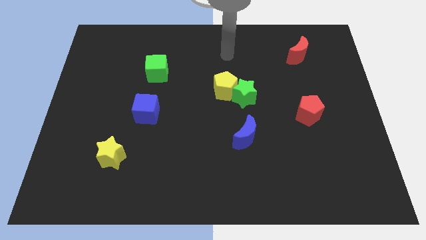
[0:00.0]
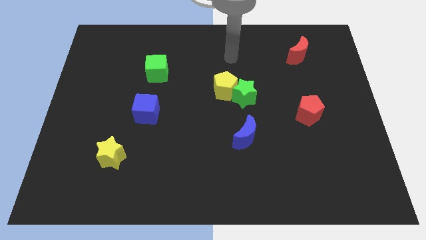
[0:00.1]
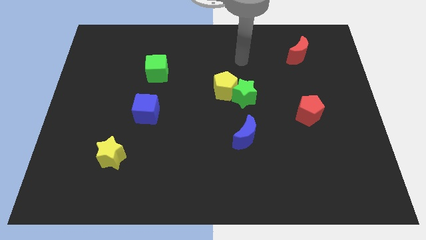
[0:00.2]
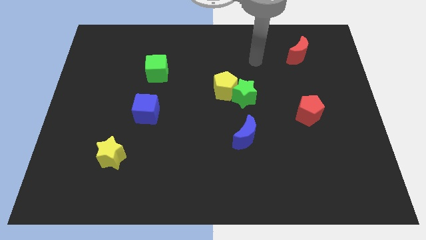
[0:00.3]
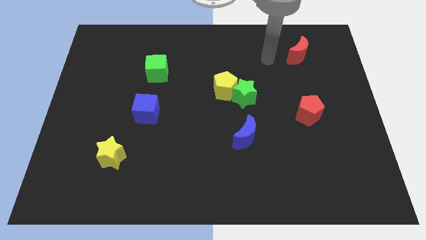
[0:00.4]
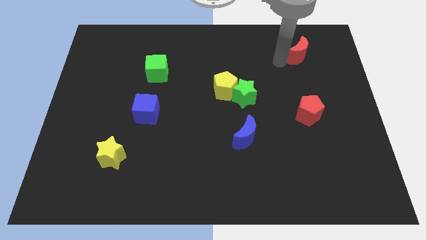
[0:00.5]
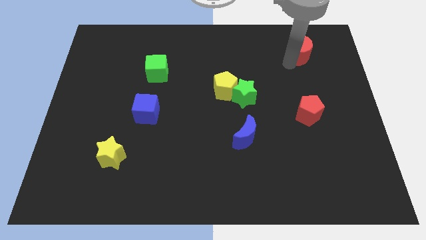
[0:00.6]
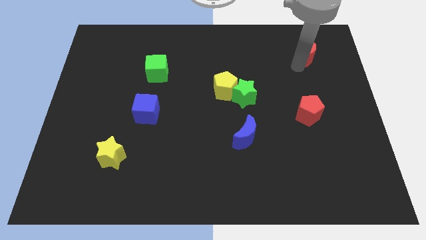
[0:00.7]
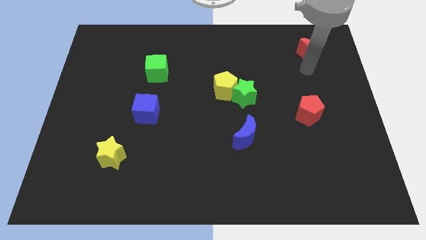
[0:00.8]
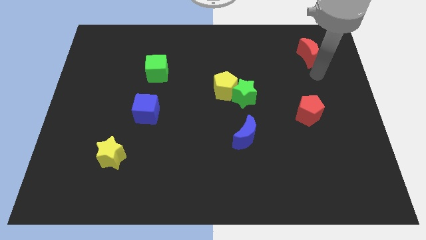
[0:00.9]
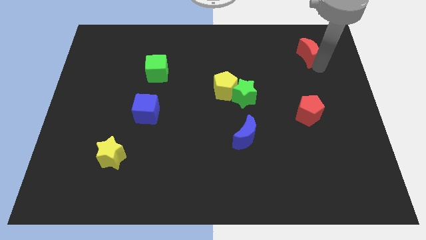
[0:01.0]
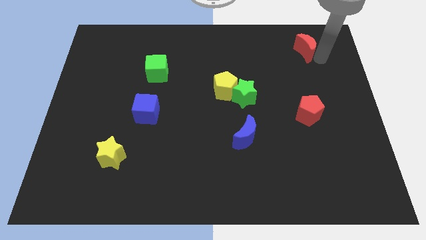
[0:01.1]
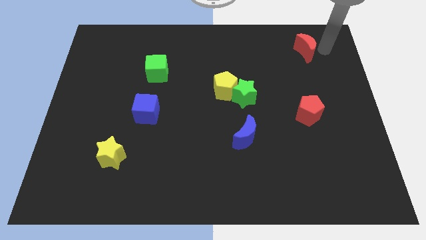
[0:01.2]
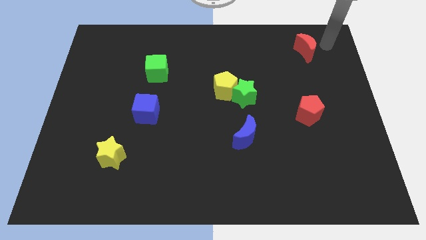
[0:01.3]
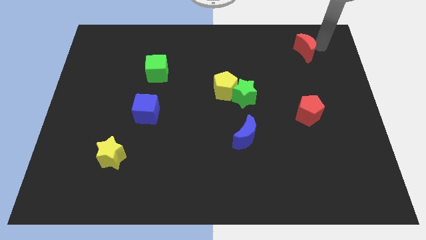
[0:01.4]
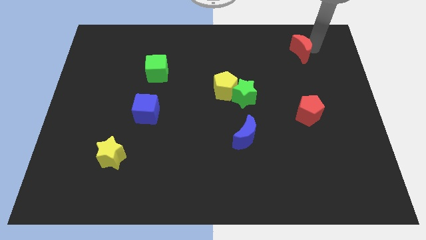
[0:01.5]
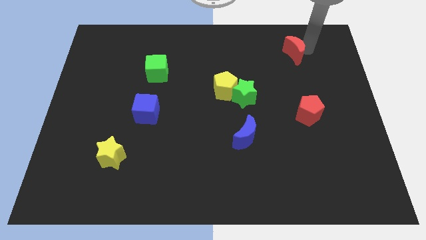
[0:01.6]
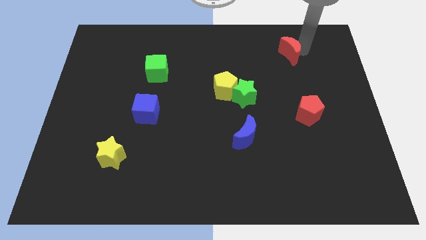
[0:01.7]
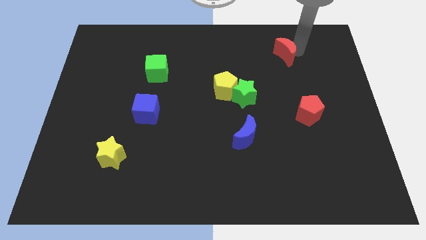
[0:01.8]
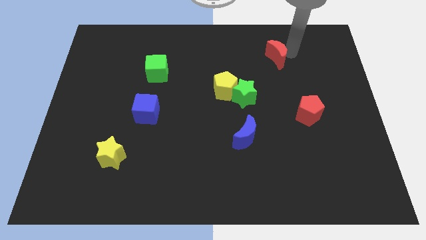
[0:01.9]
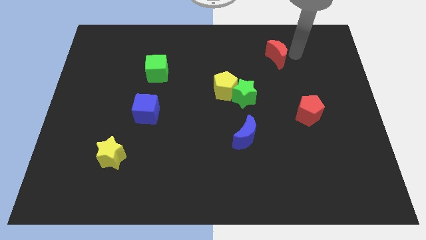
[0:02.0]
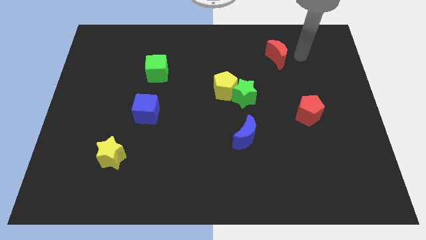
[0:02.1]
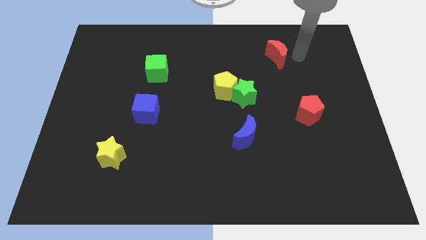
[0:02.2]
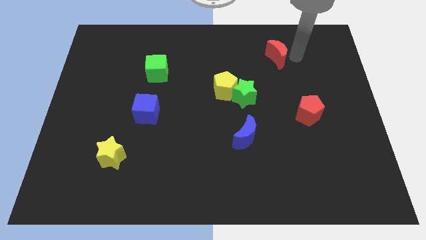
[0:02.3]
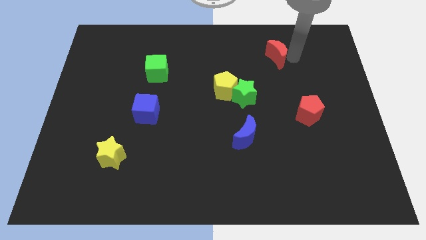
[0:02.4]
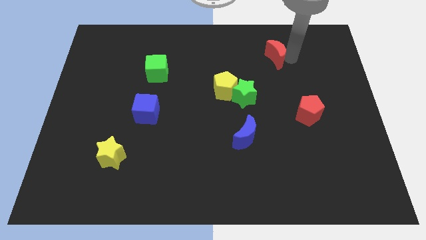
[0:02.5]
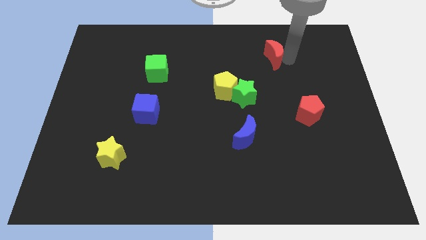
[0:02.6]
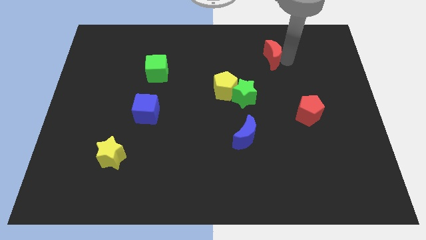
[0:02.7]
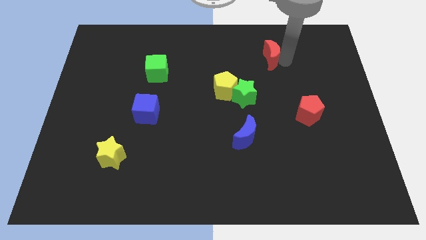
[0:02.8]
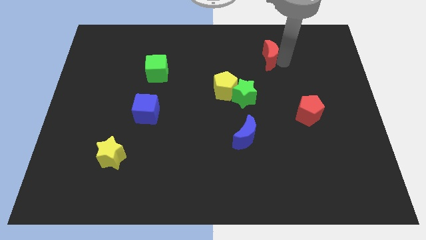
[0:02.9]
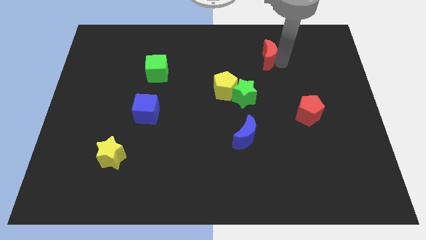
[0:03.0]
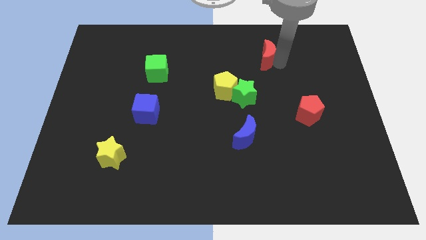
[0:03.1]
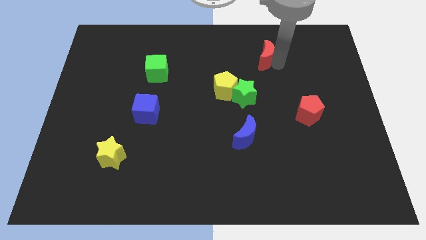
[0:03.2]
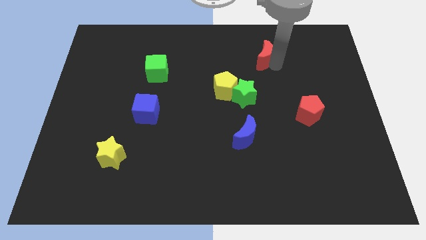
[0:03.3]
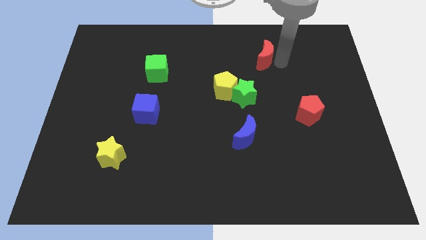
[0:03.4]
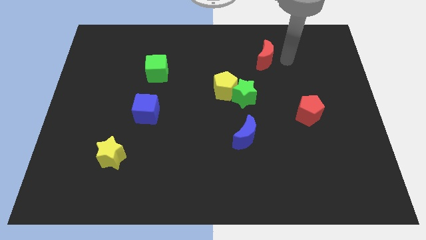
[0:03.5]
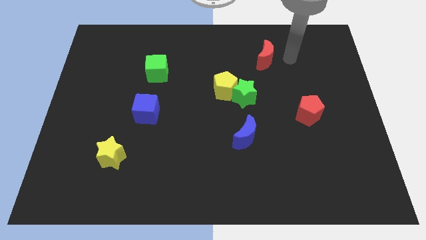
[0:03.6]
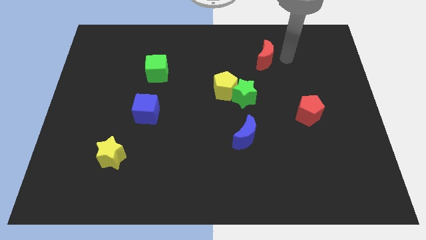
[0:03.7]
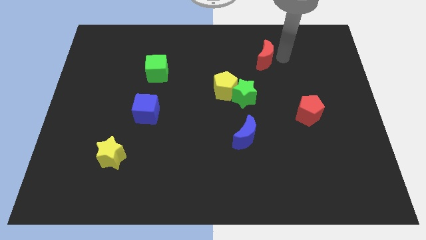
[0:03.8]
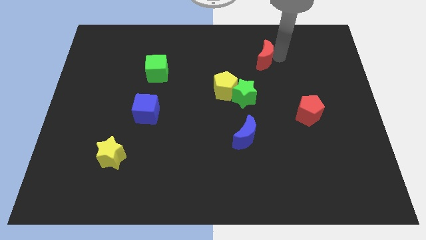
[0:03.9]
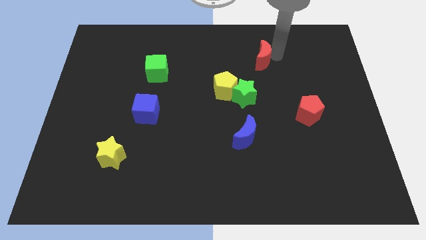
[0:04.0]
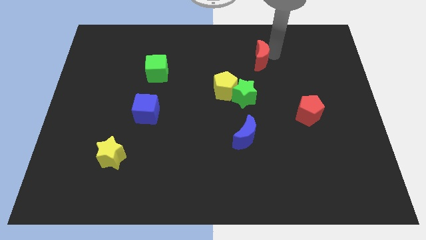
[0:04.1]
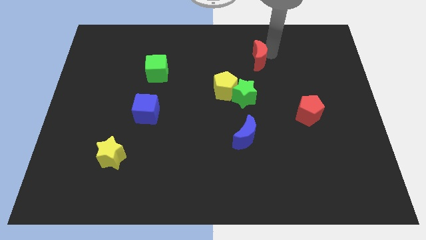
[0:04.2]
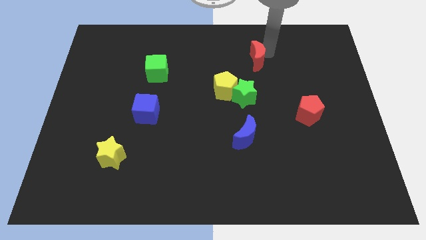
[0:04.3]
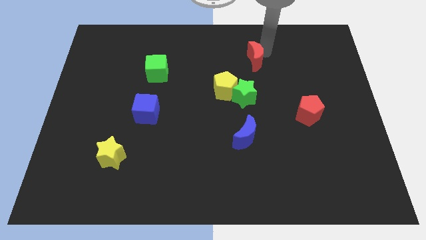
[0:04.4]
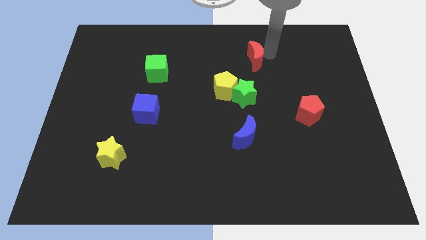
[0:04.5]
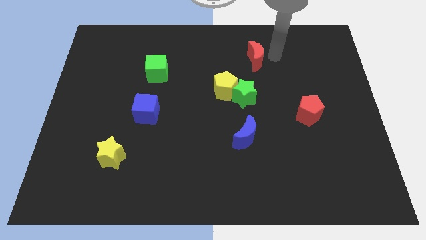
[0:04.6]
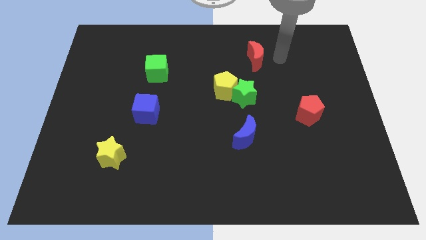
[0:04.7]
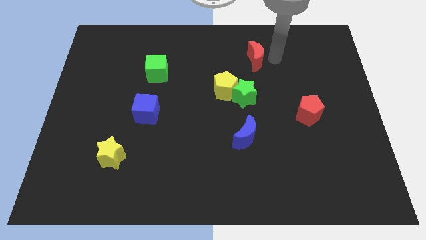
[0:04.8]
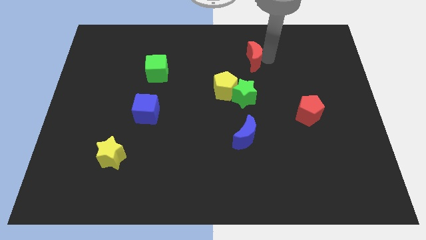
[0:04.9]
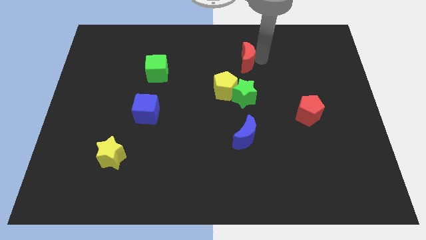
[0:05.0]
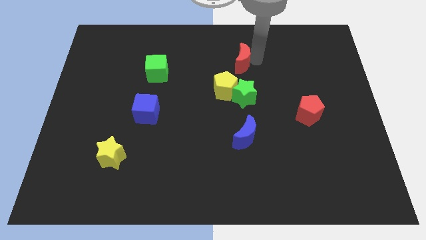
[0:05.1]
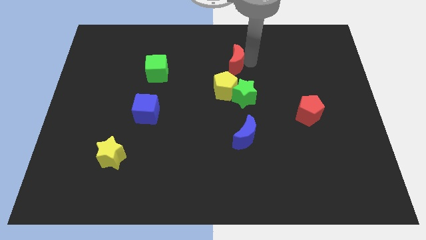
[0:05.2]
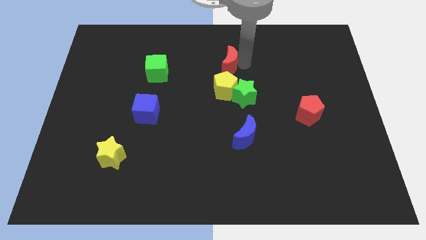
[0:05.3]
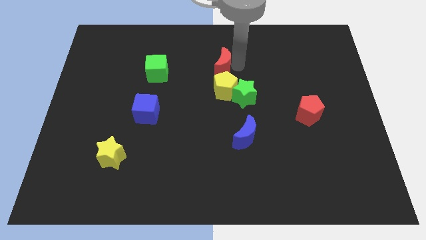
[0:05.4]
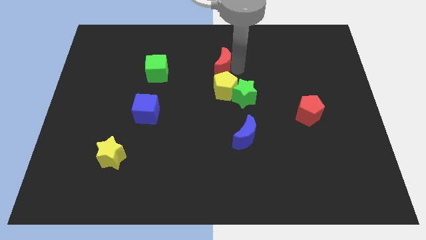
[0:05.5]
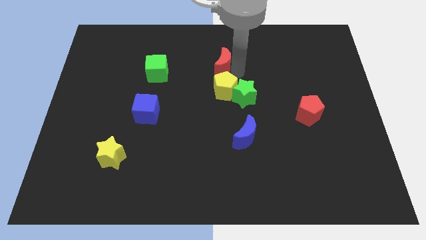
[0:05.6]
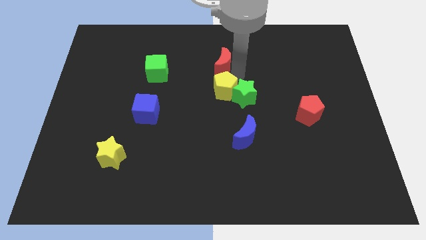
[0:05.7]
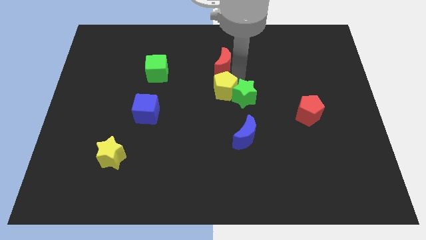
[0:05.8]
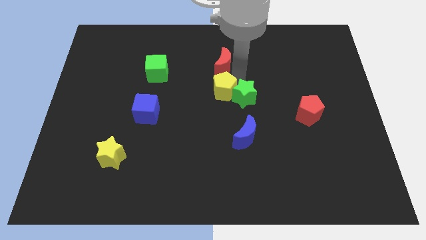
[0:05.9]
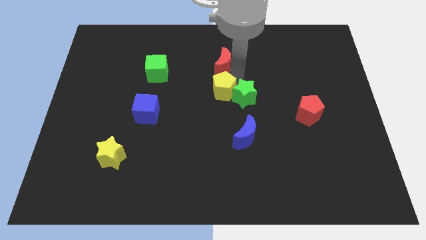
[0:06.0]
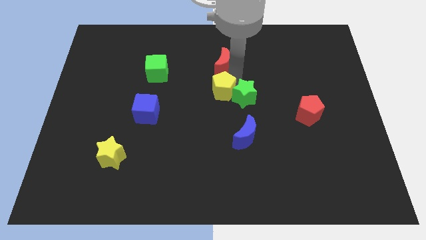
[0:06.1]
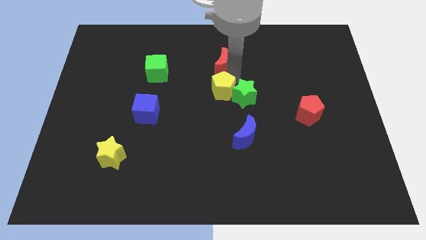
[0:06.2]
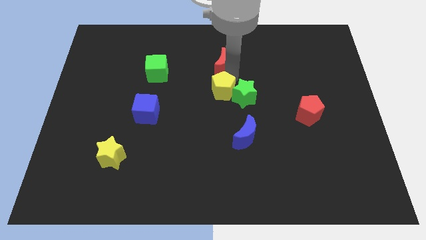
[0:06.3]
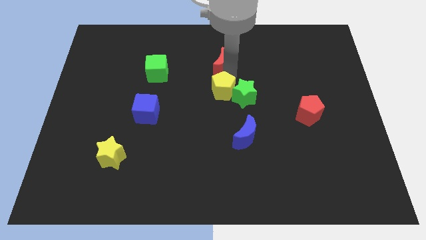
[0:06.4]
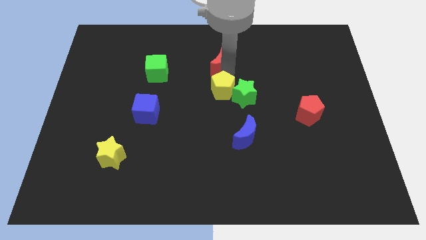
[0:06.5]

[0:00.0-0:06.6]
move the red moon to the left

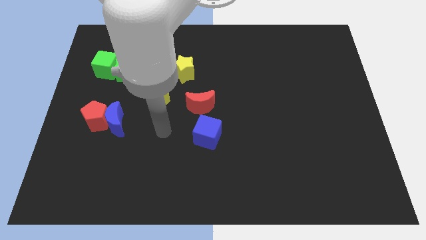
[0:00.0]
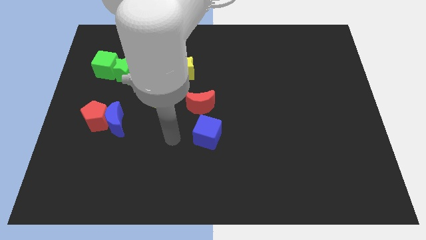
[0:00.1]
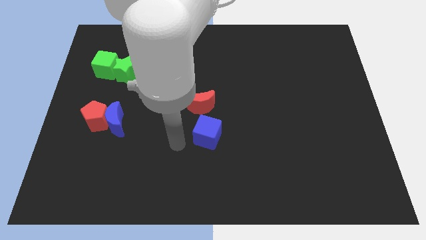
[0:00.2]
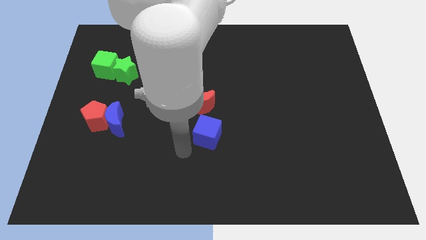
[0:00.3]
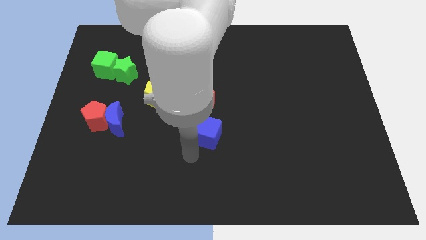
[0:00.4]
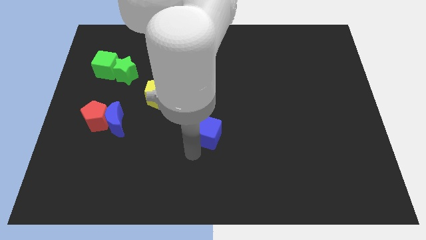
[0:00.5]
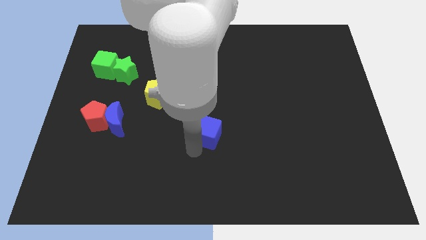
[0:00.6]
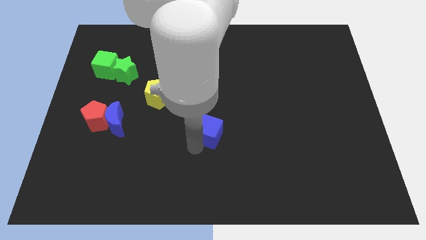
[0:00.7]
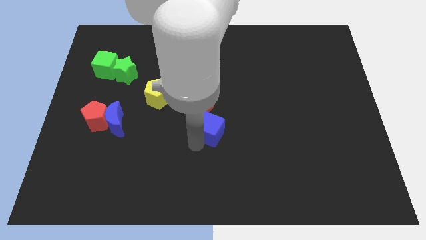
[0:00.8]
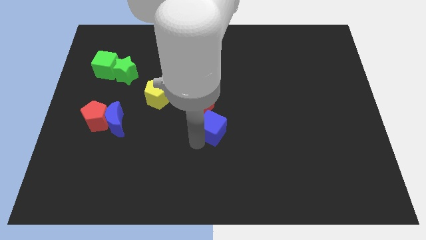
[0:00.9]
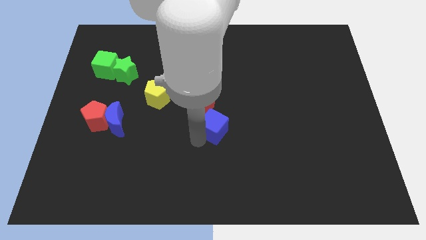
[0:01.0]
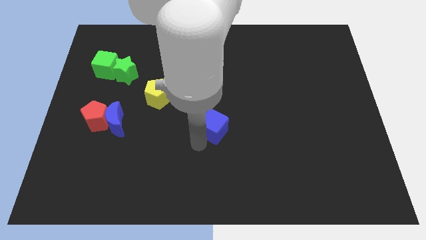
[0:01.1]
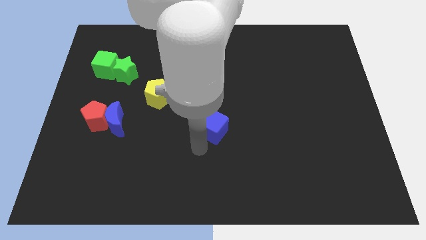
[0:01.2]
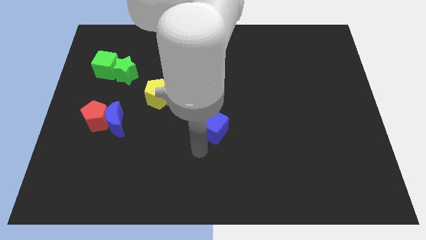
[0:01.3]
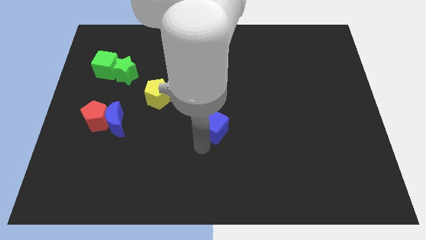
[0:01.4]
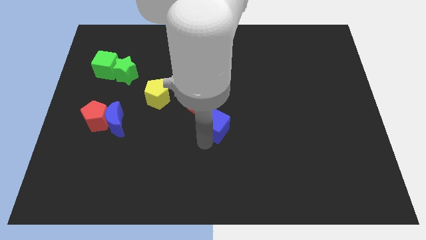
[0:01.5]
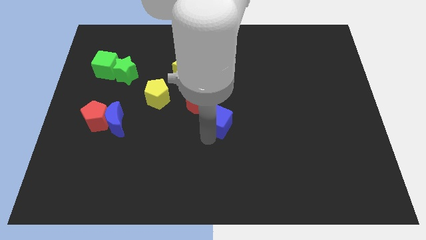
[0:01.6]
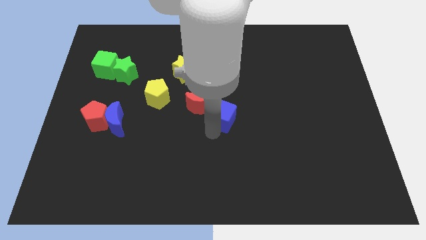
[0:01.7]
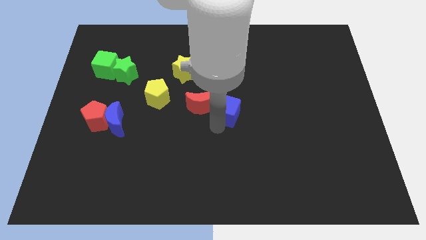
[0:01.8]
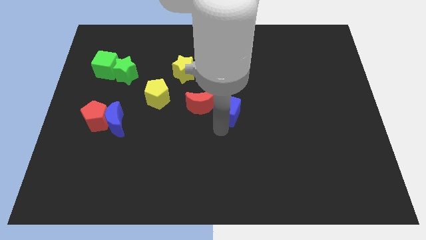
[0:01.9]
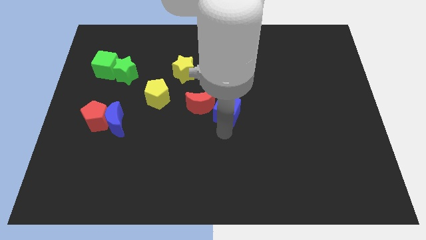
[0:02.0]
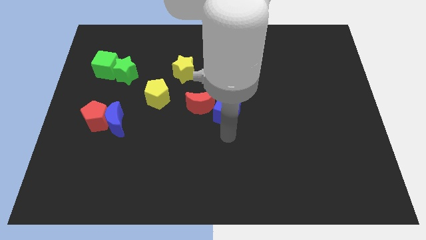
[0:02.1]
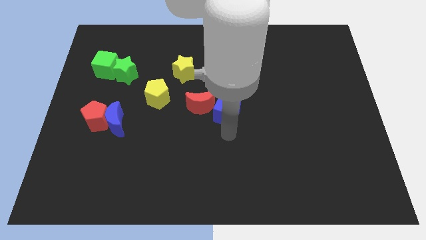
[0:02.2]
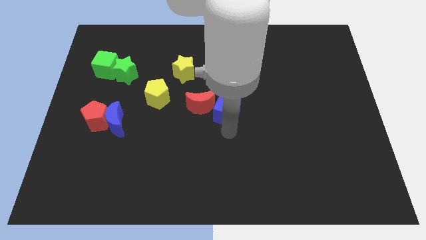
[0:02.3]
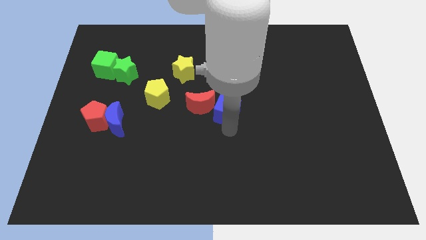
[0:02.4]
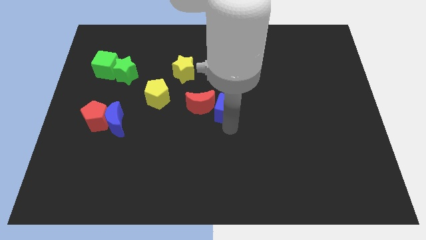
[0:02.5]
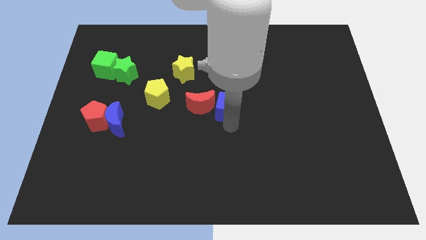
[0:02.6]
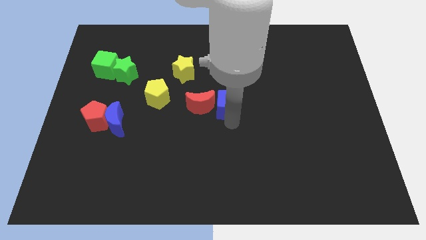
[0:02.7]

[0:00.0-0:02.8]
push the blue cube slightly up
